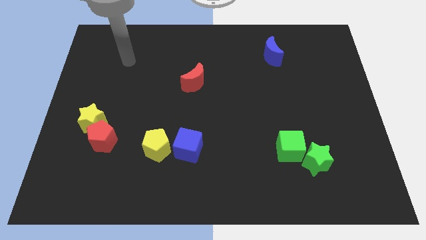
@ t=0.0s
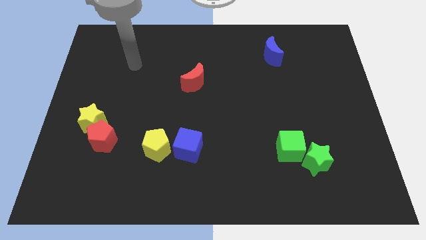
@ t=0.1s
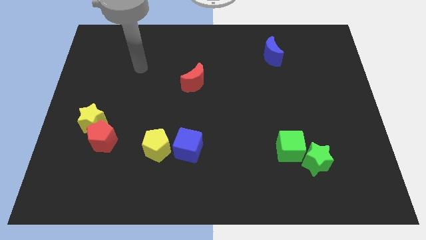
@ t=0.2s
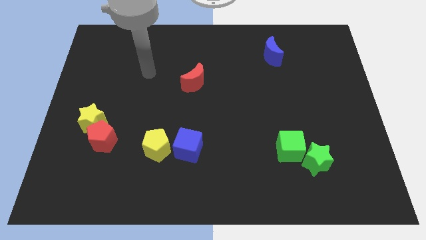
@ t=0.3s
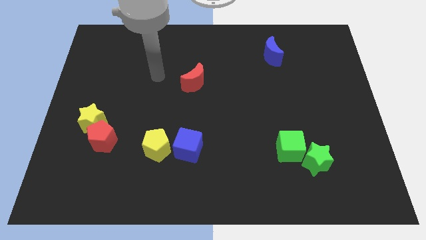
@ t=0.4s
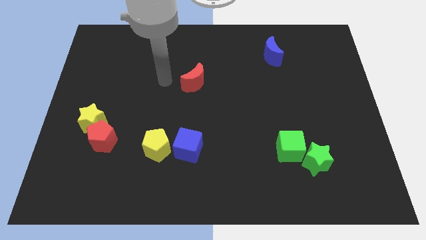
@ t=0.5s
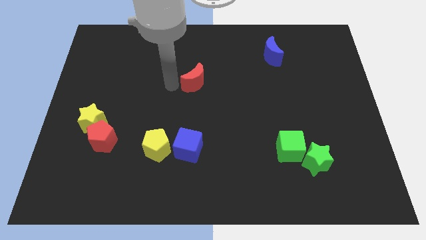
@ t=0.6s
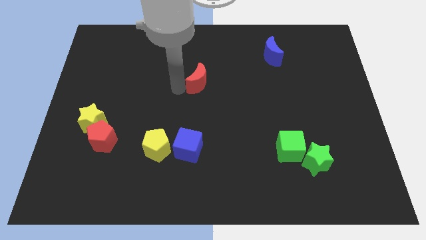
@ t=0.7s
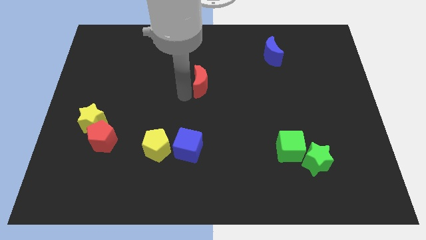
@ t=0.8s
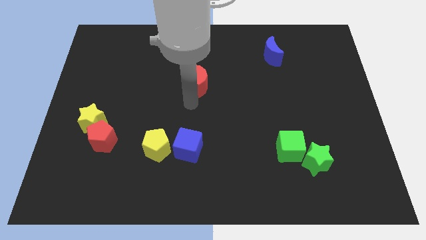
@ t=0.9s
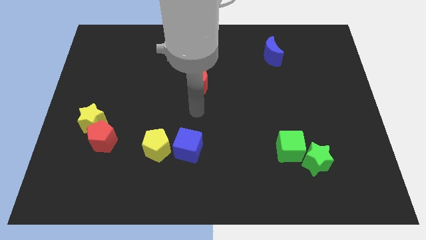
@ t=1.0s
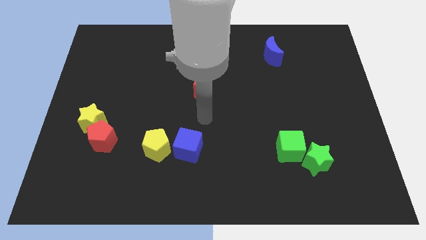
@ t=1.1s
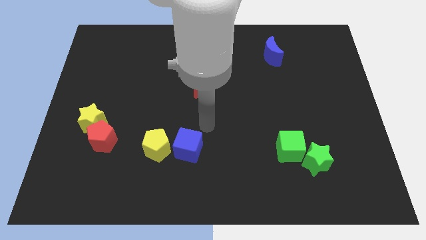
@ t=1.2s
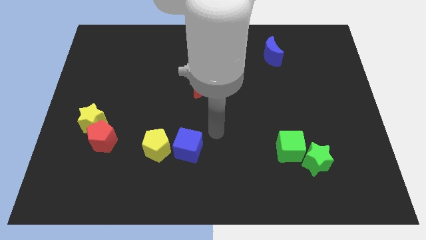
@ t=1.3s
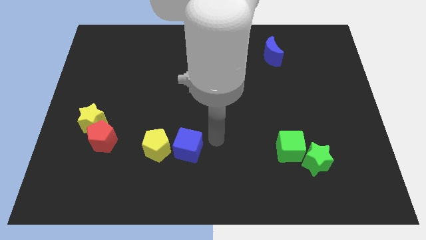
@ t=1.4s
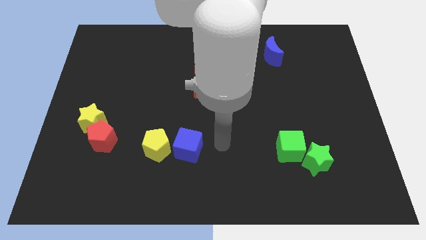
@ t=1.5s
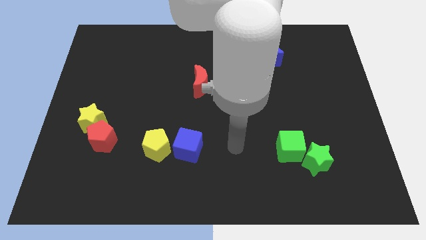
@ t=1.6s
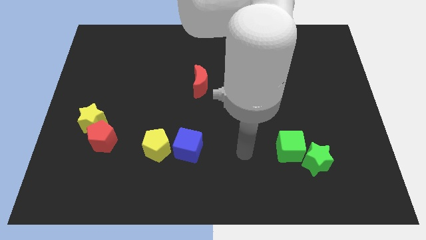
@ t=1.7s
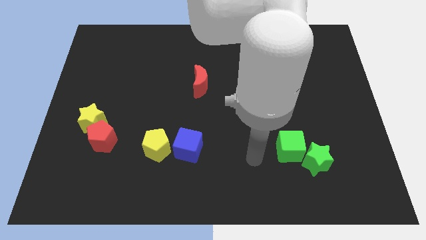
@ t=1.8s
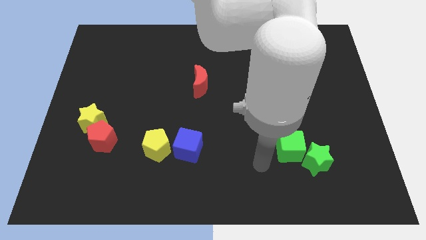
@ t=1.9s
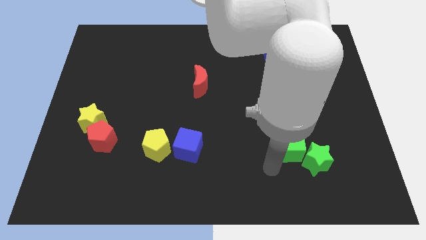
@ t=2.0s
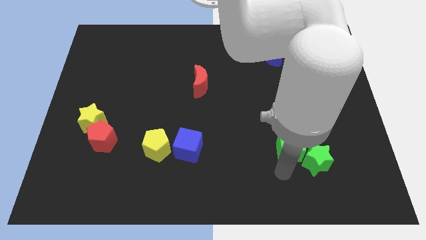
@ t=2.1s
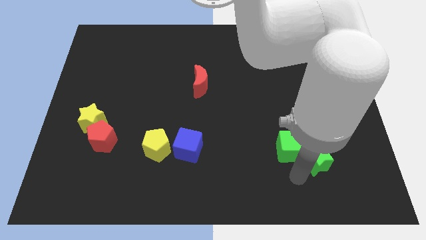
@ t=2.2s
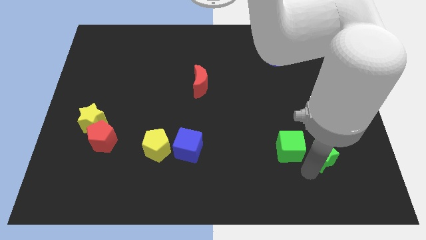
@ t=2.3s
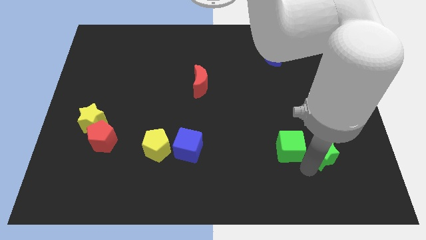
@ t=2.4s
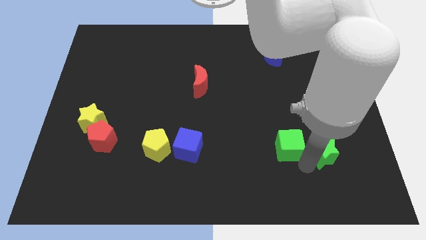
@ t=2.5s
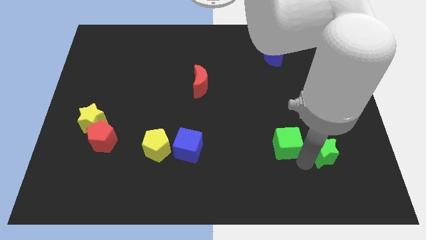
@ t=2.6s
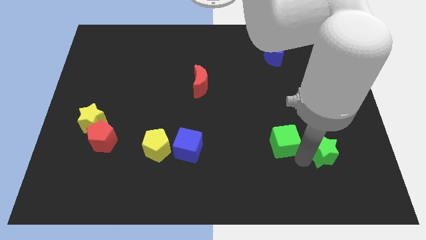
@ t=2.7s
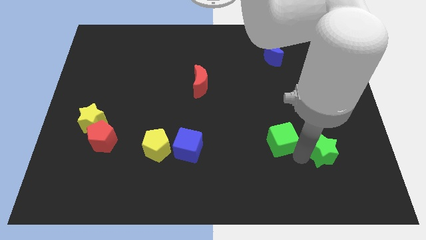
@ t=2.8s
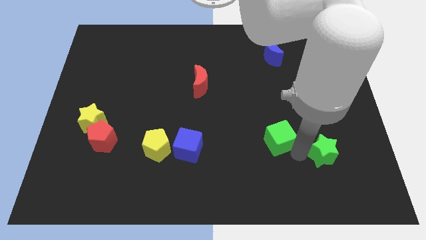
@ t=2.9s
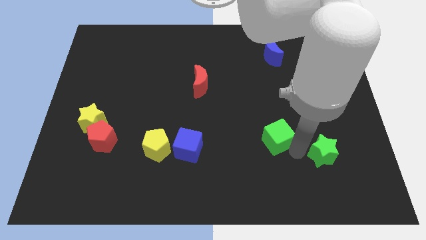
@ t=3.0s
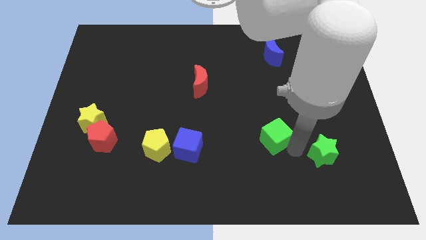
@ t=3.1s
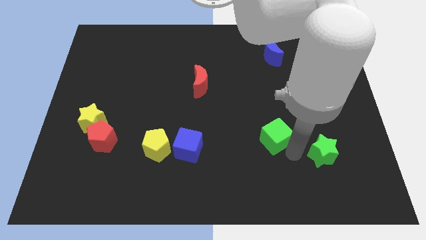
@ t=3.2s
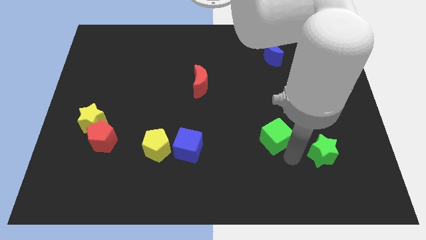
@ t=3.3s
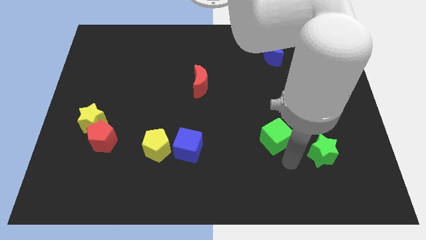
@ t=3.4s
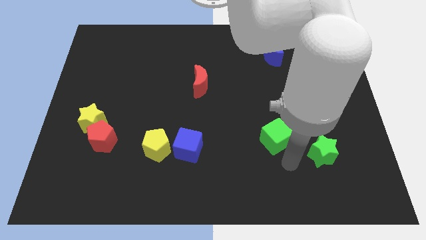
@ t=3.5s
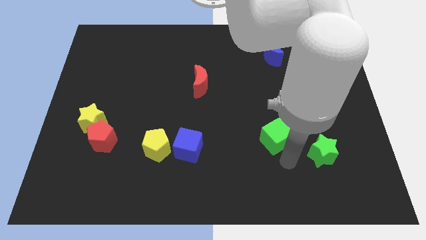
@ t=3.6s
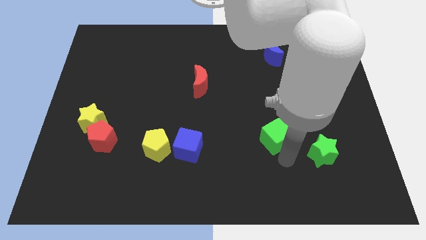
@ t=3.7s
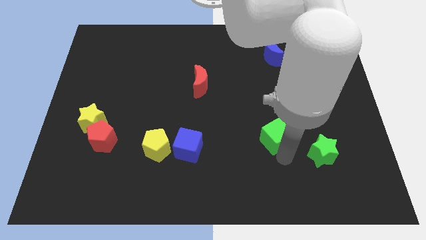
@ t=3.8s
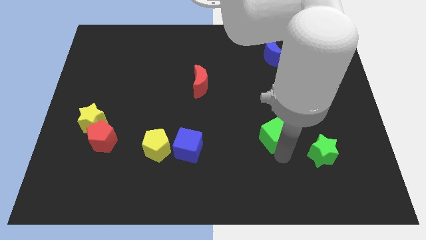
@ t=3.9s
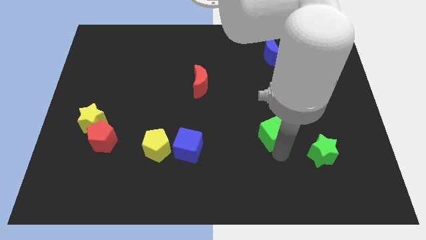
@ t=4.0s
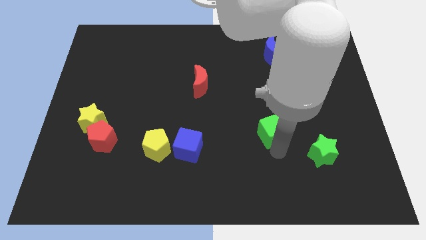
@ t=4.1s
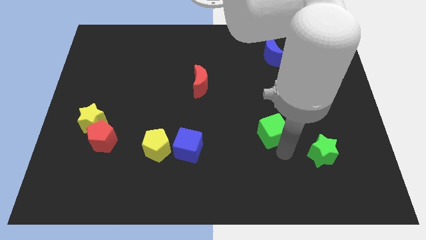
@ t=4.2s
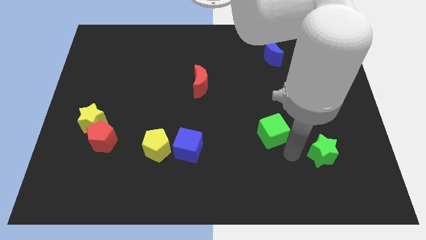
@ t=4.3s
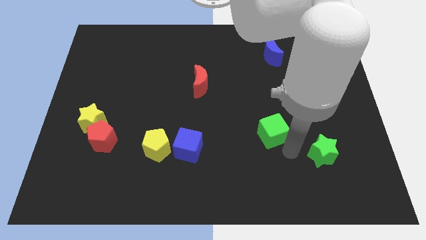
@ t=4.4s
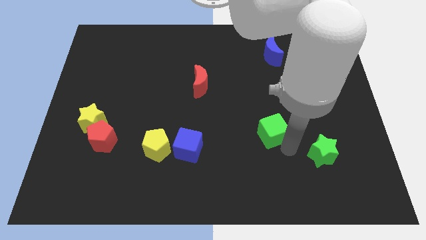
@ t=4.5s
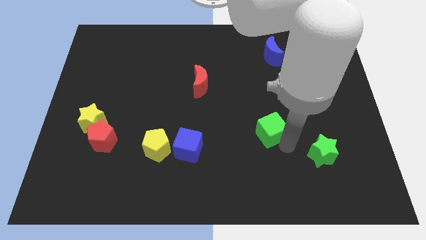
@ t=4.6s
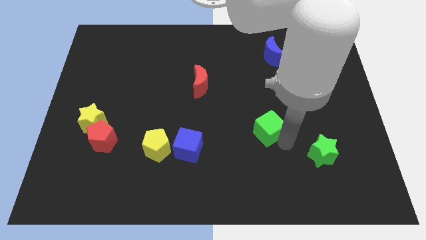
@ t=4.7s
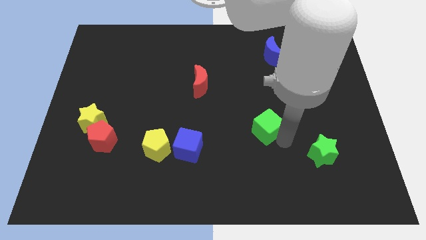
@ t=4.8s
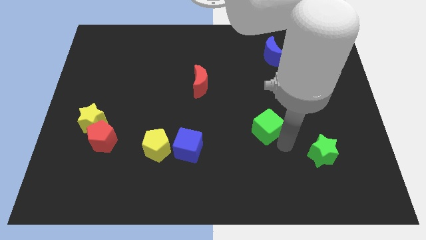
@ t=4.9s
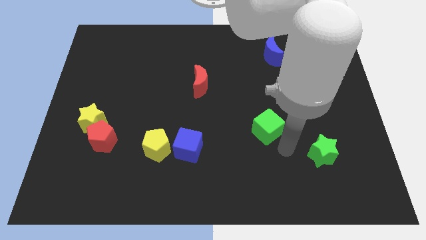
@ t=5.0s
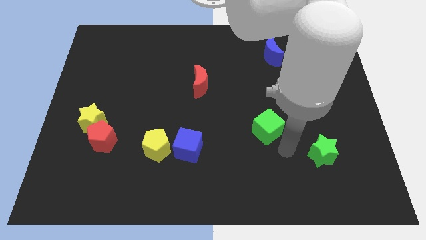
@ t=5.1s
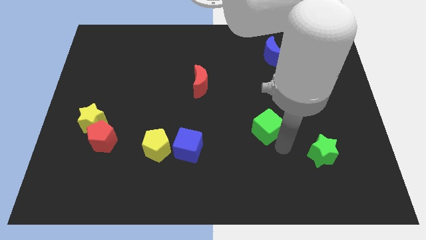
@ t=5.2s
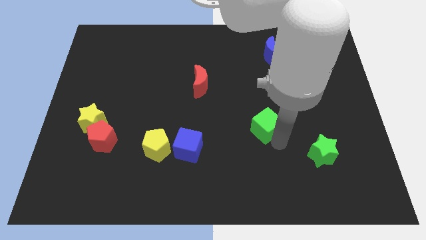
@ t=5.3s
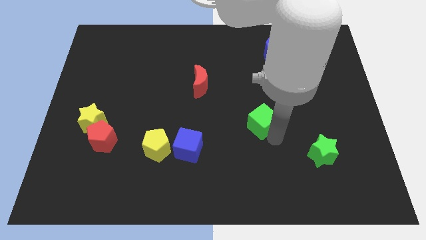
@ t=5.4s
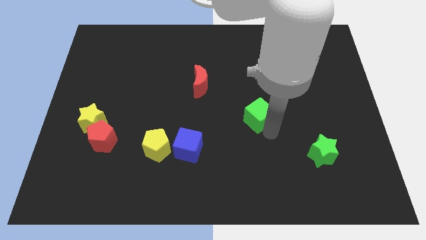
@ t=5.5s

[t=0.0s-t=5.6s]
move the green cube to the middle of the board
